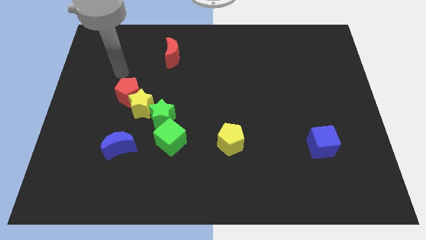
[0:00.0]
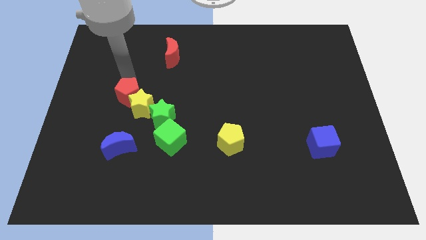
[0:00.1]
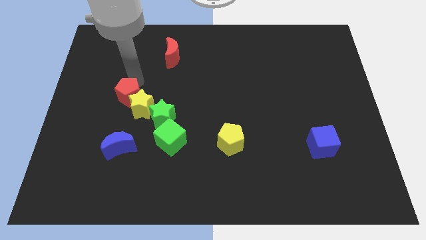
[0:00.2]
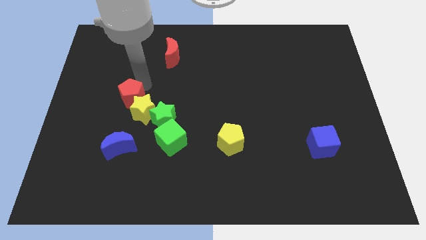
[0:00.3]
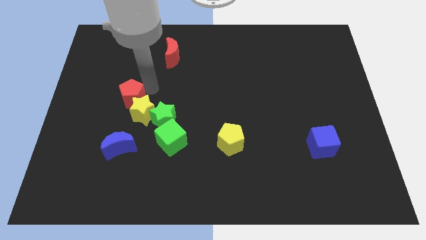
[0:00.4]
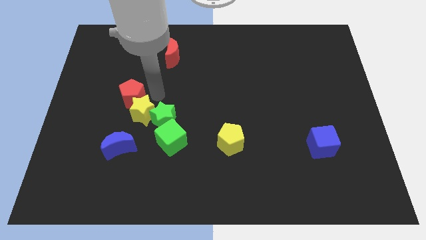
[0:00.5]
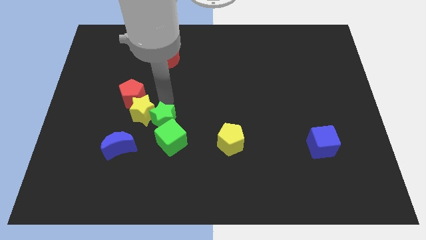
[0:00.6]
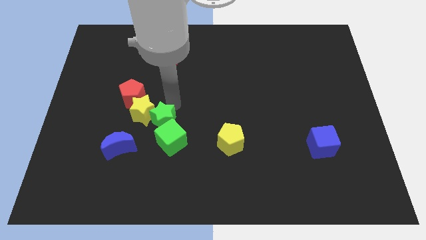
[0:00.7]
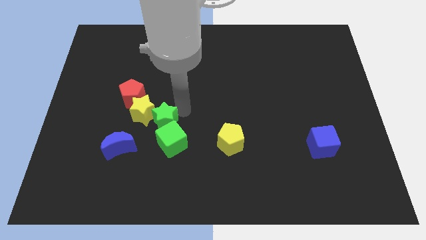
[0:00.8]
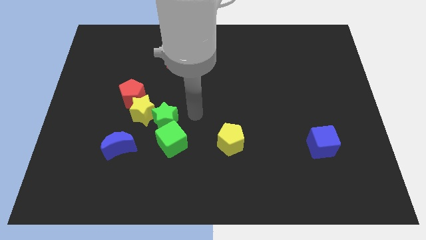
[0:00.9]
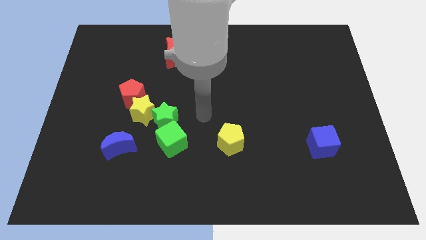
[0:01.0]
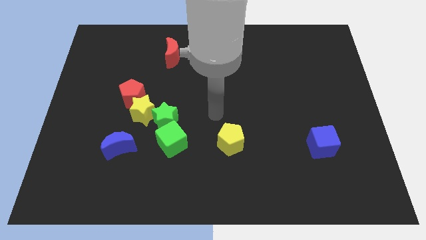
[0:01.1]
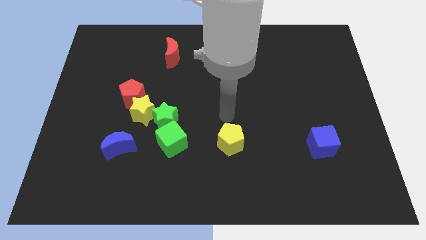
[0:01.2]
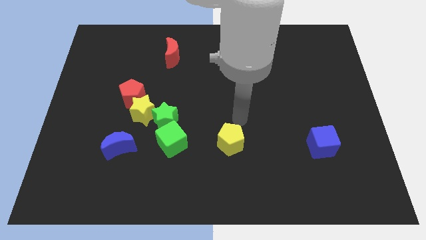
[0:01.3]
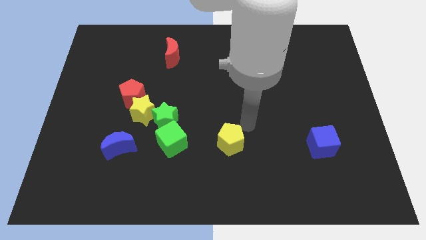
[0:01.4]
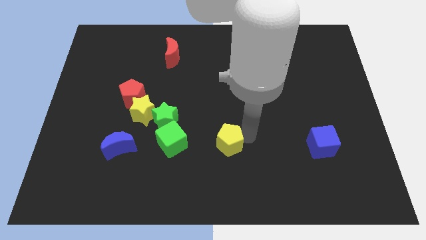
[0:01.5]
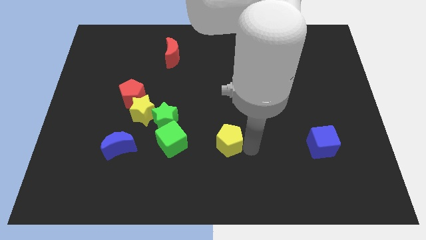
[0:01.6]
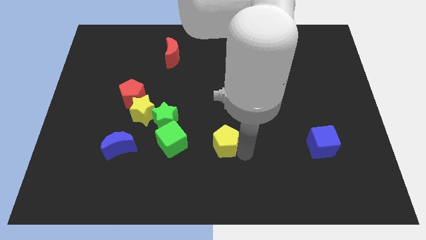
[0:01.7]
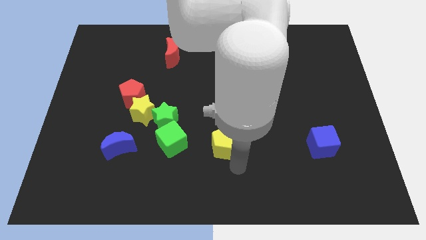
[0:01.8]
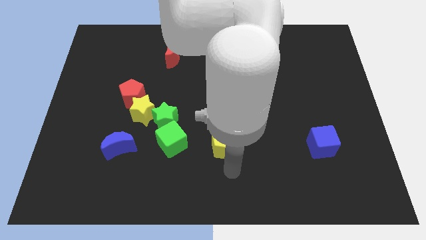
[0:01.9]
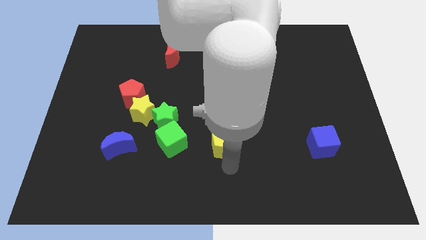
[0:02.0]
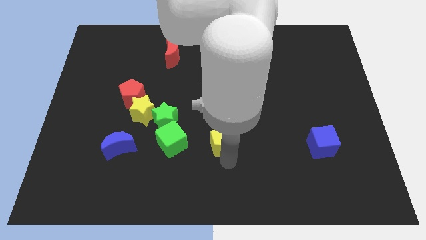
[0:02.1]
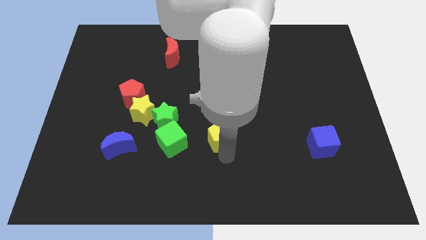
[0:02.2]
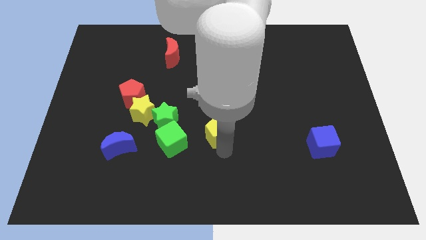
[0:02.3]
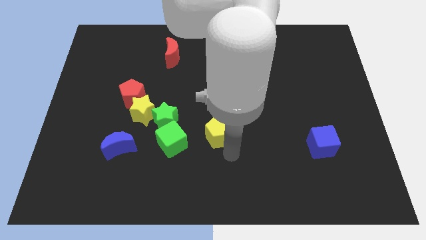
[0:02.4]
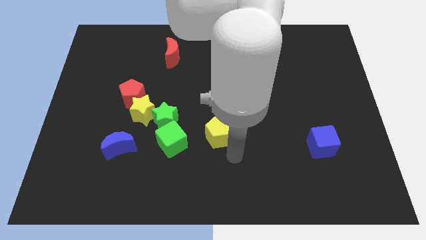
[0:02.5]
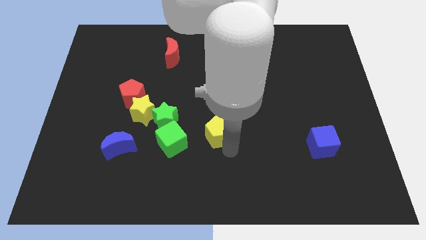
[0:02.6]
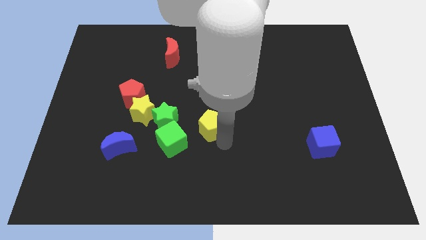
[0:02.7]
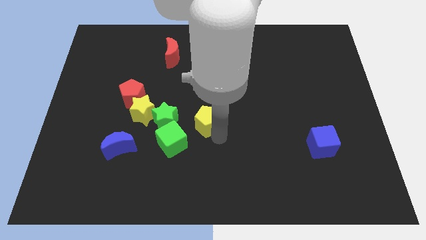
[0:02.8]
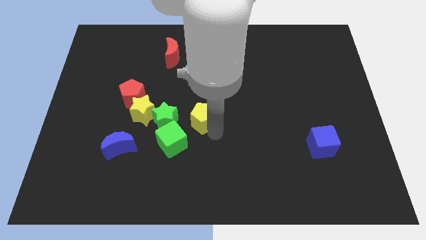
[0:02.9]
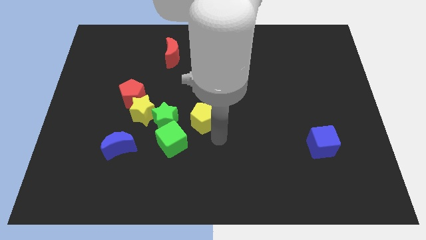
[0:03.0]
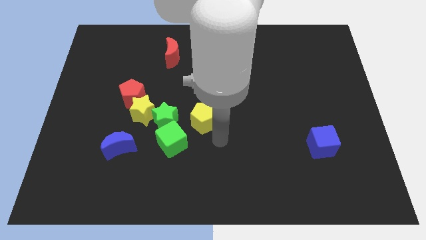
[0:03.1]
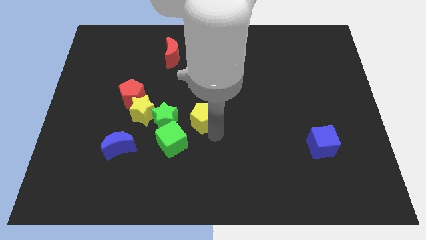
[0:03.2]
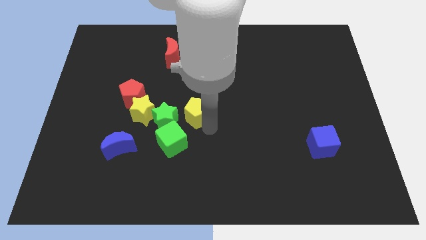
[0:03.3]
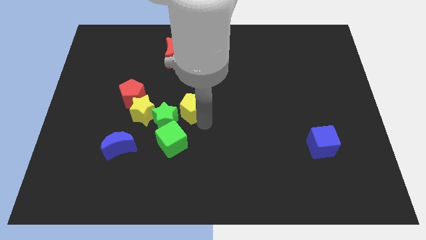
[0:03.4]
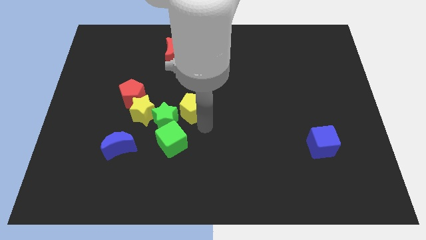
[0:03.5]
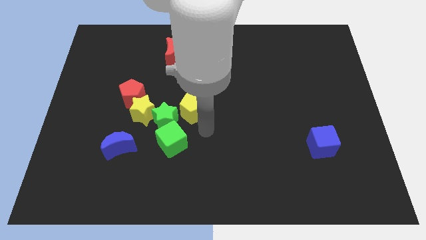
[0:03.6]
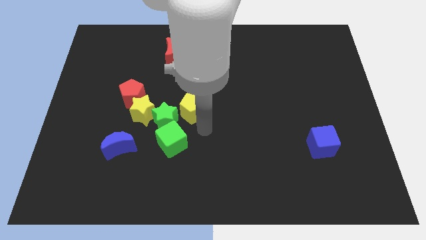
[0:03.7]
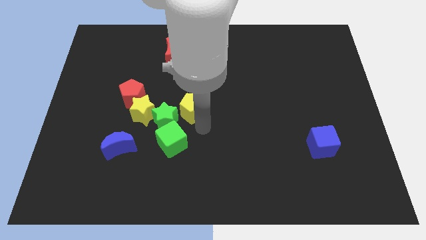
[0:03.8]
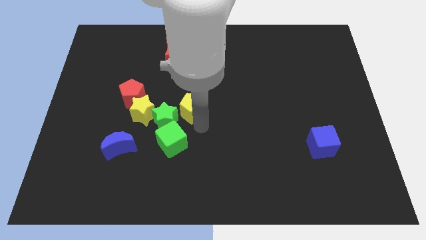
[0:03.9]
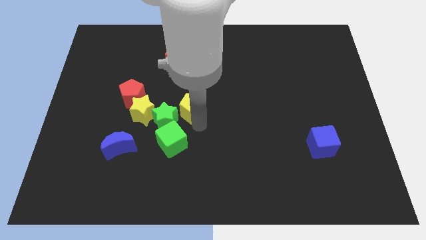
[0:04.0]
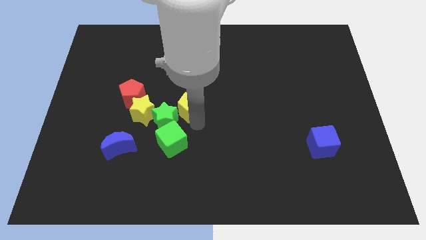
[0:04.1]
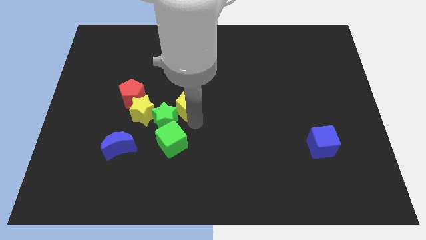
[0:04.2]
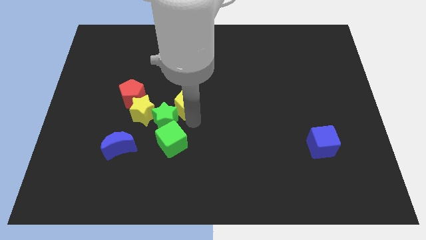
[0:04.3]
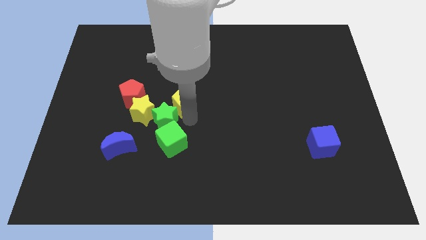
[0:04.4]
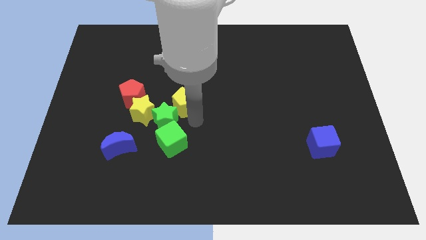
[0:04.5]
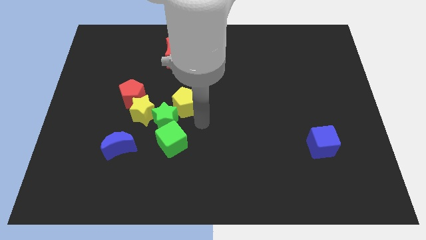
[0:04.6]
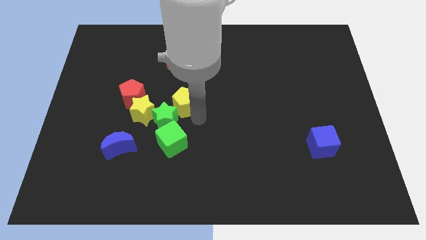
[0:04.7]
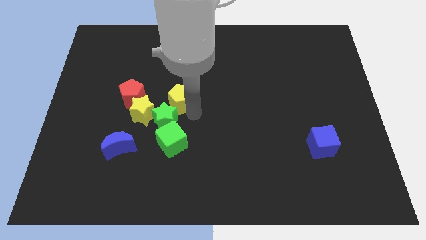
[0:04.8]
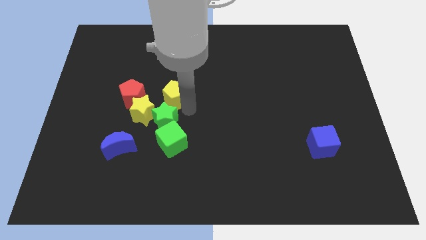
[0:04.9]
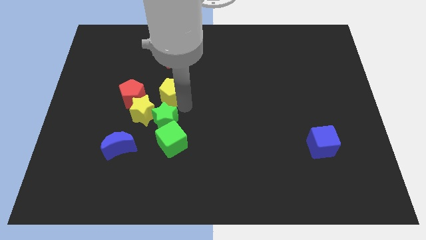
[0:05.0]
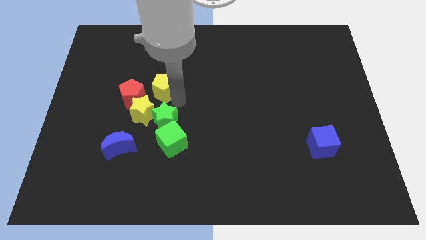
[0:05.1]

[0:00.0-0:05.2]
push the yellow pentagon up and to the left

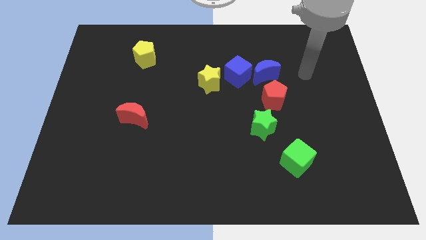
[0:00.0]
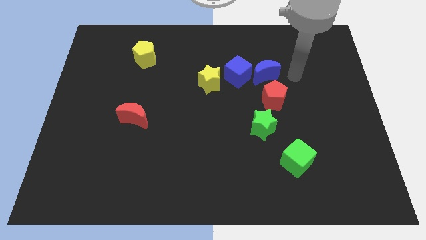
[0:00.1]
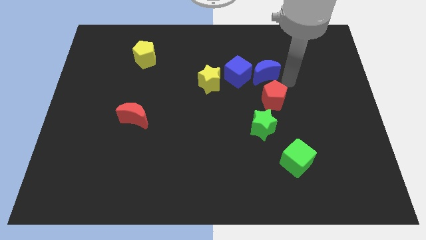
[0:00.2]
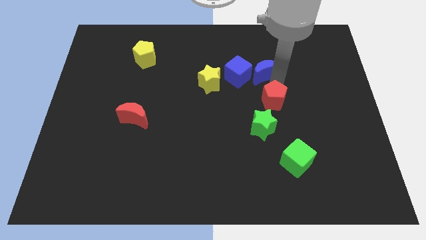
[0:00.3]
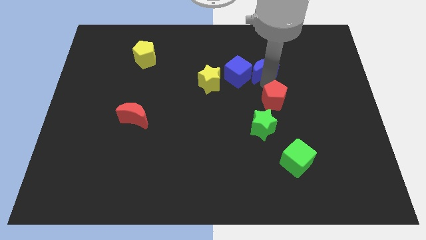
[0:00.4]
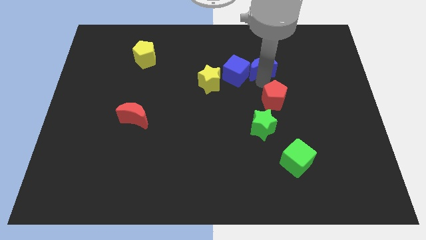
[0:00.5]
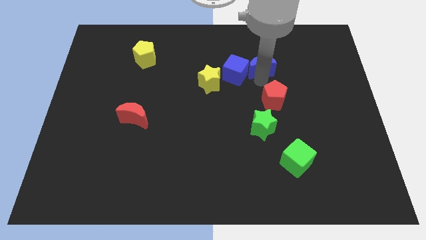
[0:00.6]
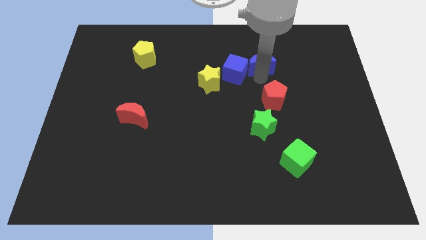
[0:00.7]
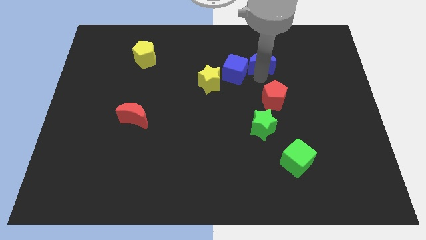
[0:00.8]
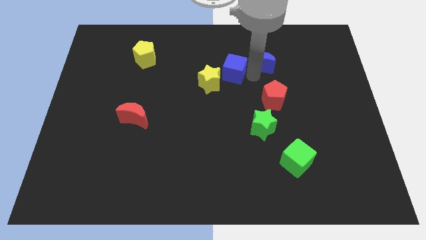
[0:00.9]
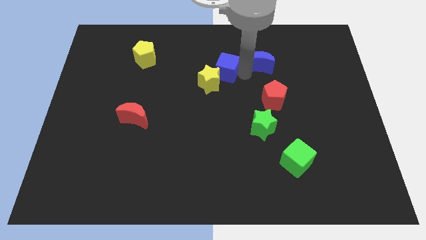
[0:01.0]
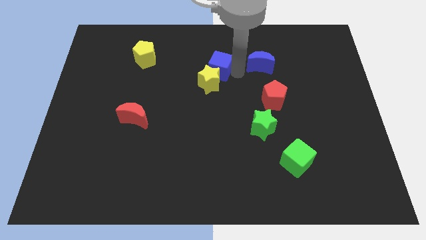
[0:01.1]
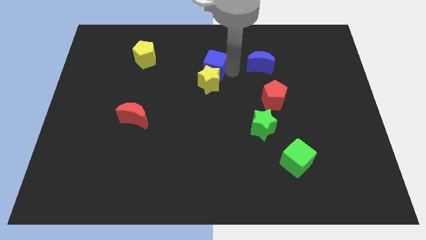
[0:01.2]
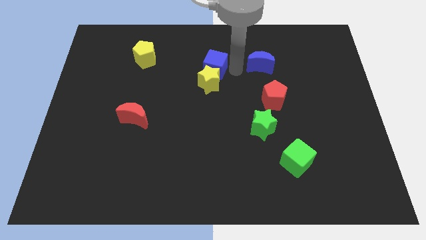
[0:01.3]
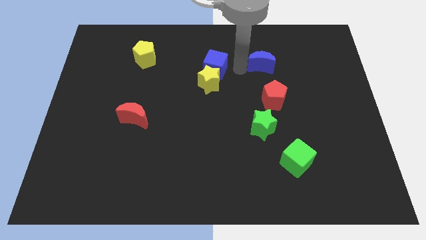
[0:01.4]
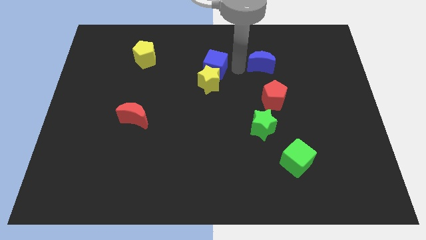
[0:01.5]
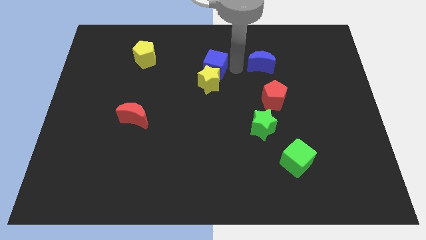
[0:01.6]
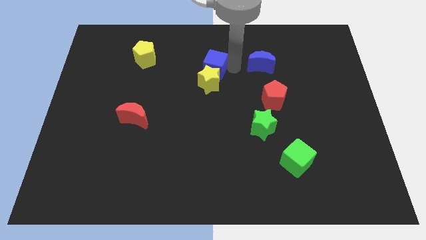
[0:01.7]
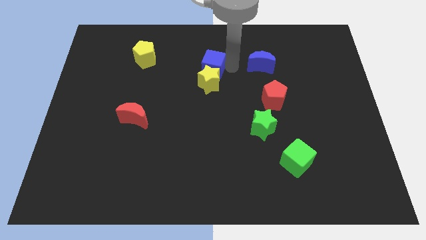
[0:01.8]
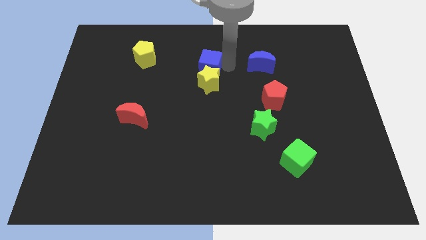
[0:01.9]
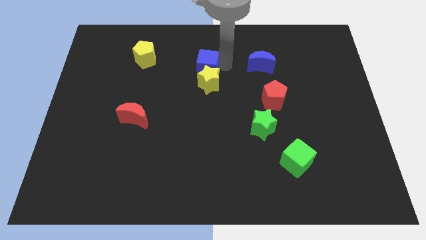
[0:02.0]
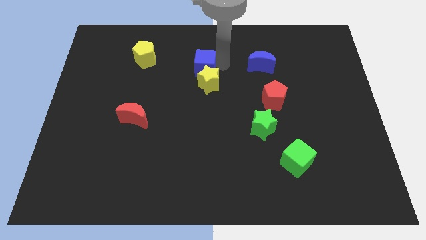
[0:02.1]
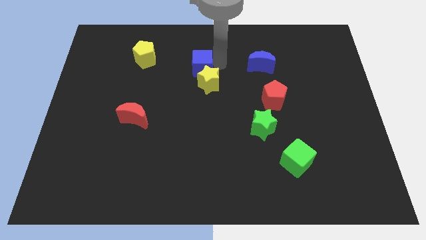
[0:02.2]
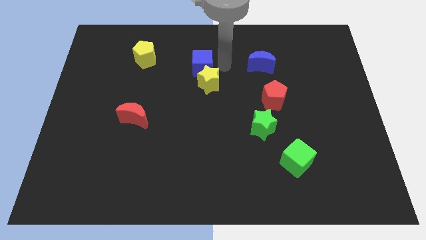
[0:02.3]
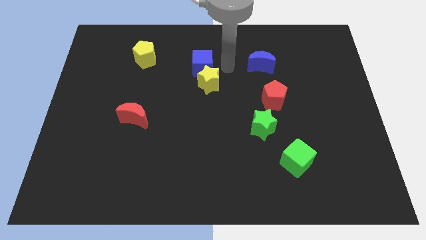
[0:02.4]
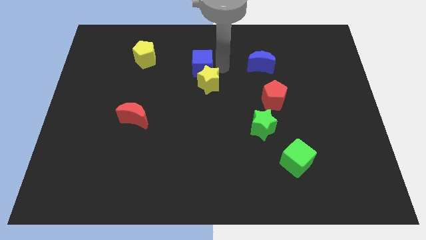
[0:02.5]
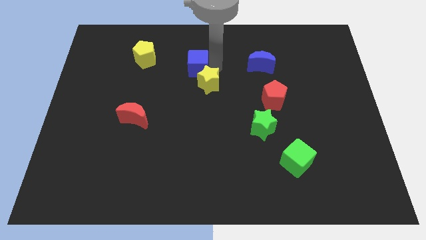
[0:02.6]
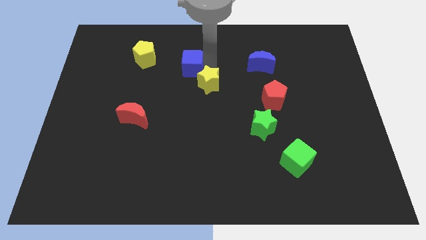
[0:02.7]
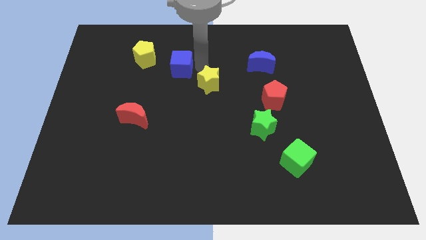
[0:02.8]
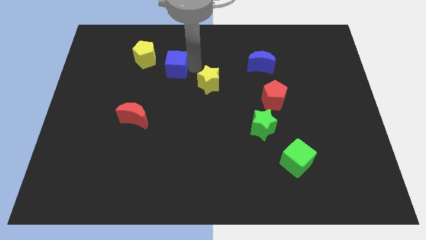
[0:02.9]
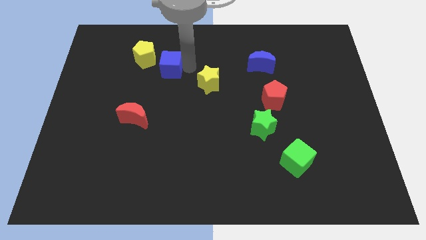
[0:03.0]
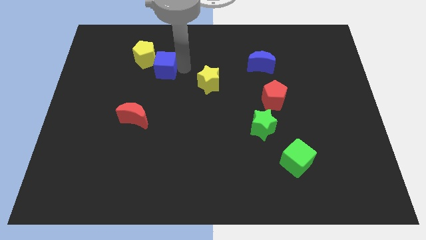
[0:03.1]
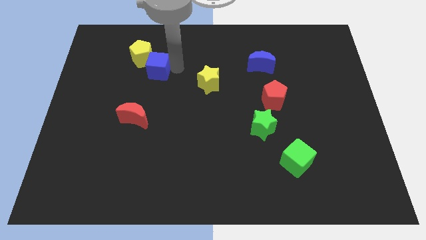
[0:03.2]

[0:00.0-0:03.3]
move the blue cube to the left
